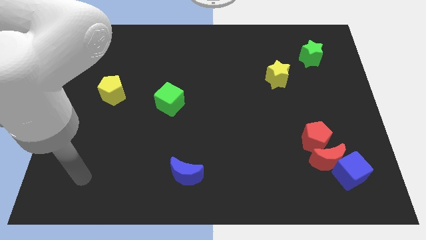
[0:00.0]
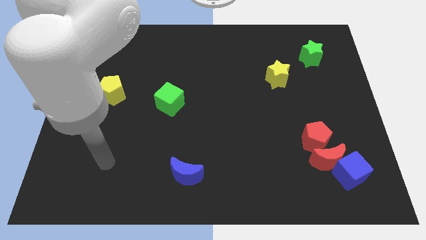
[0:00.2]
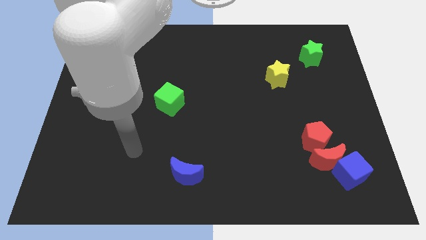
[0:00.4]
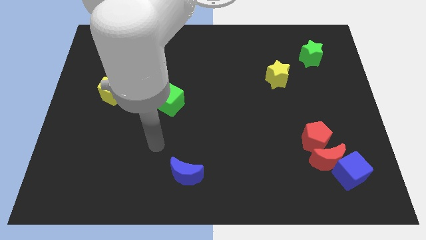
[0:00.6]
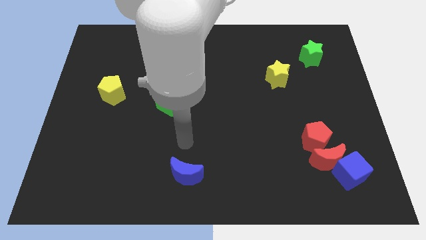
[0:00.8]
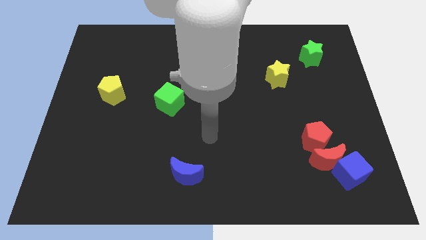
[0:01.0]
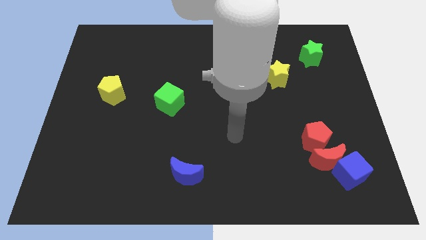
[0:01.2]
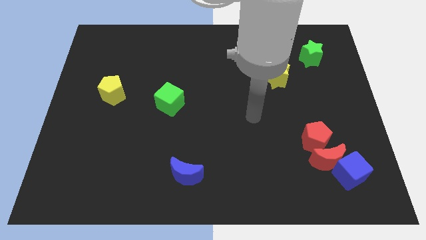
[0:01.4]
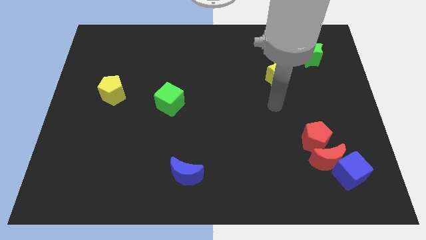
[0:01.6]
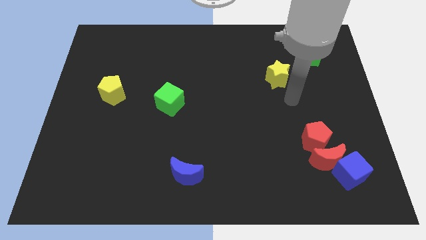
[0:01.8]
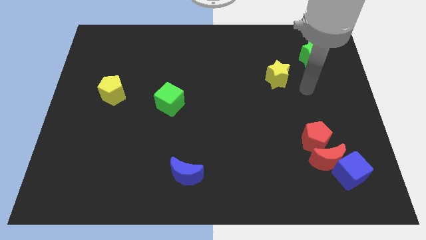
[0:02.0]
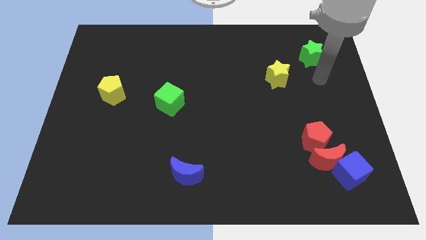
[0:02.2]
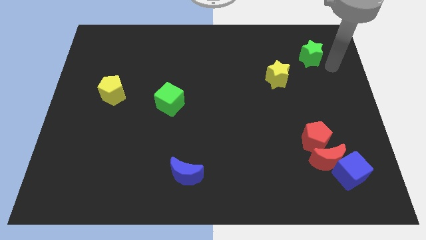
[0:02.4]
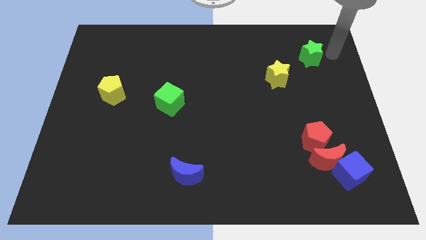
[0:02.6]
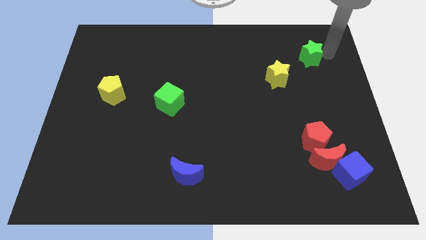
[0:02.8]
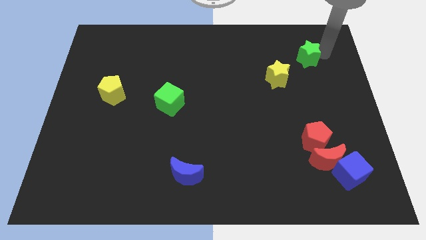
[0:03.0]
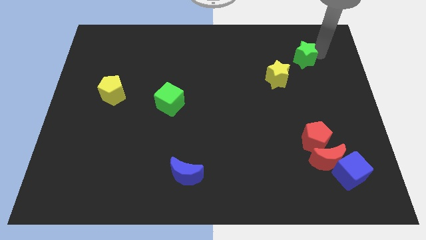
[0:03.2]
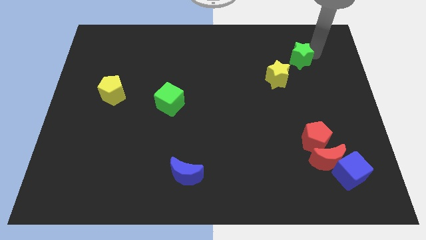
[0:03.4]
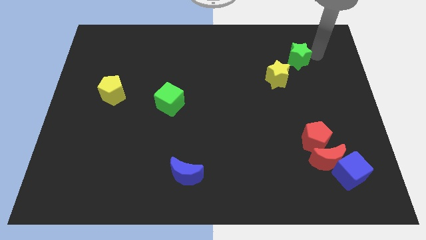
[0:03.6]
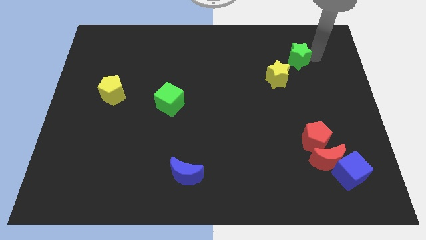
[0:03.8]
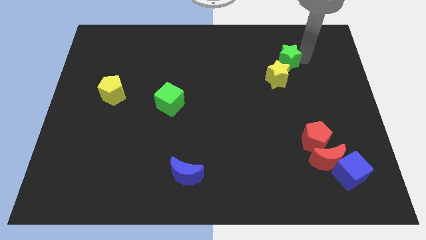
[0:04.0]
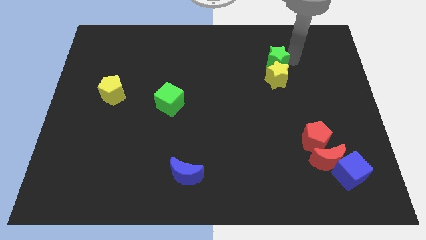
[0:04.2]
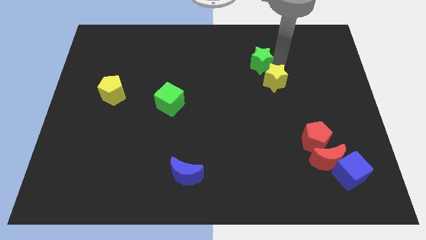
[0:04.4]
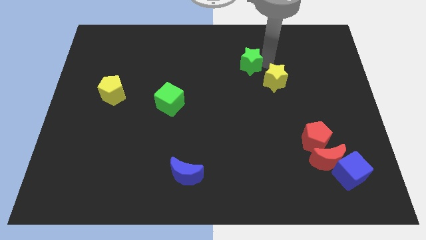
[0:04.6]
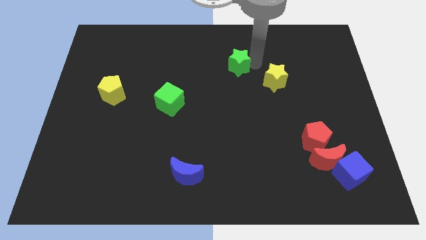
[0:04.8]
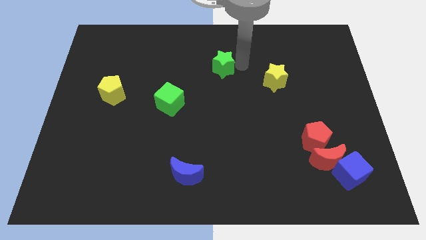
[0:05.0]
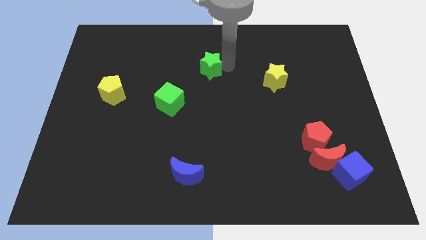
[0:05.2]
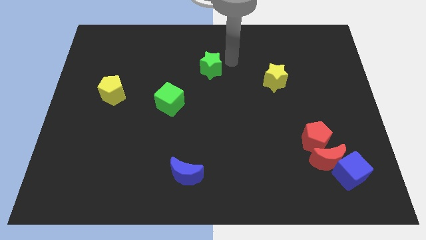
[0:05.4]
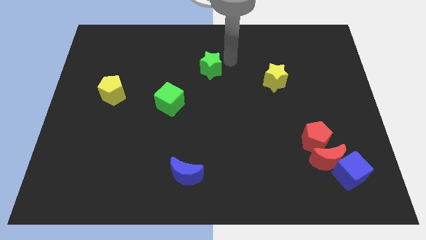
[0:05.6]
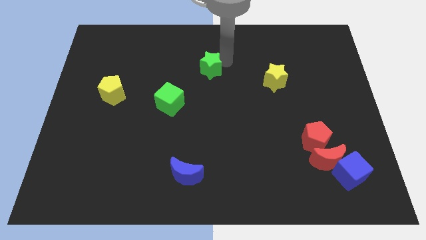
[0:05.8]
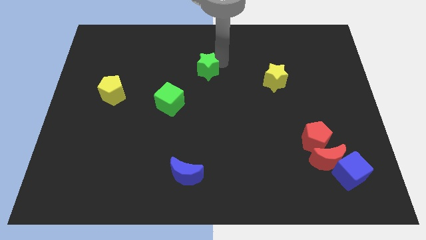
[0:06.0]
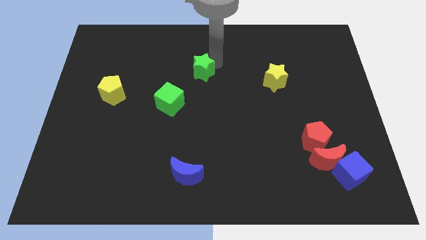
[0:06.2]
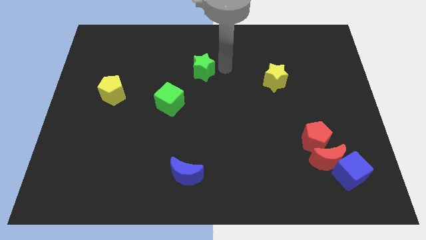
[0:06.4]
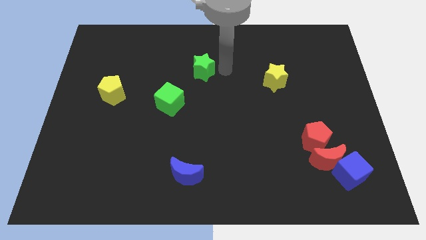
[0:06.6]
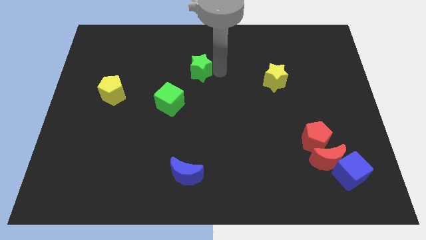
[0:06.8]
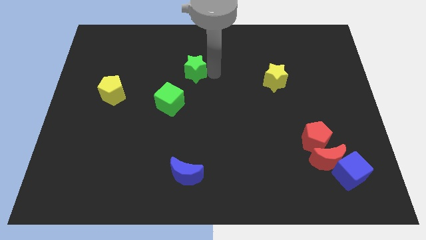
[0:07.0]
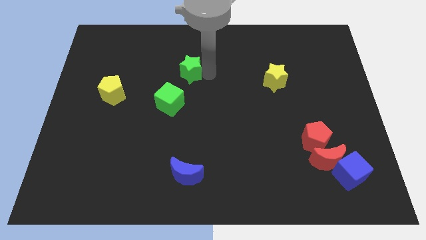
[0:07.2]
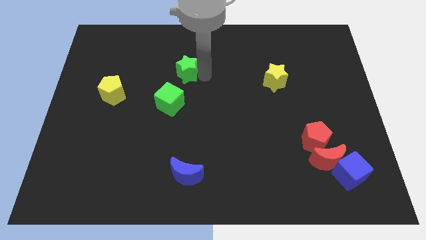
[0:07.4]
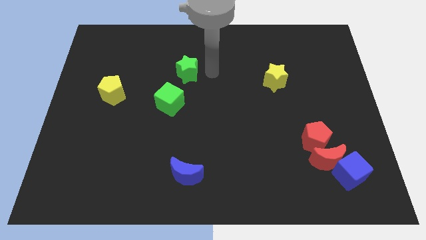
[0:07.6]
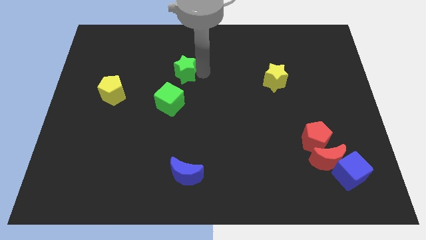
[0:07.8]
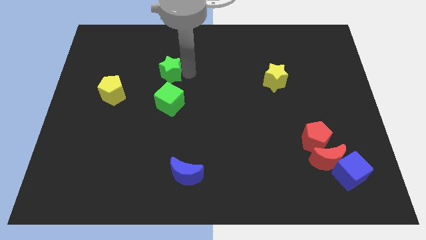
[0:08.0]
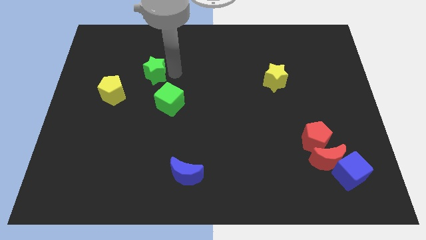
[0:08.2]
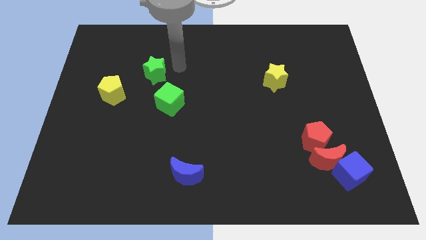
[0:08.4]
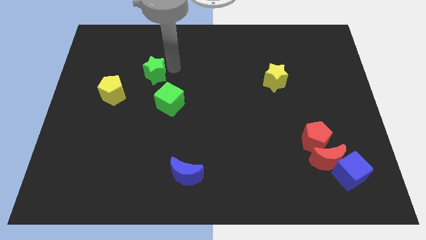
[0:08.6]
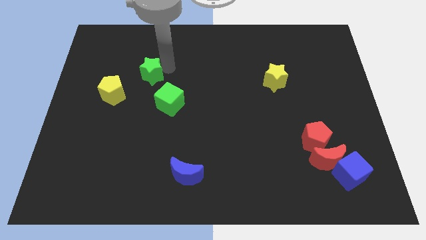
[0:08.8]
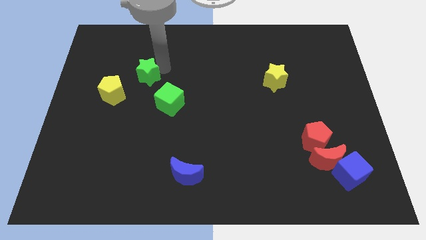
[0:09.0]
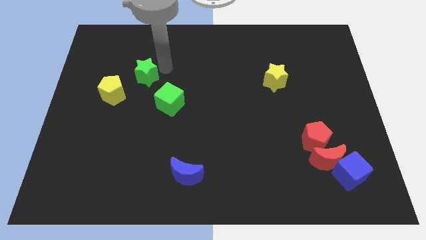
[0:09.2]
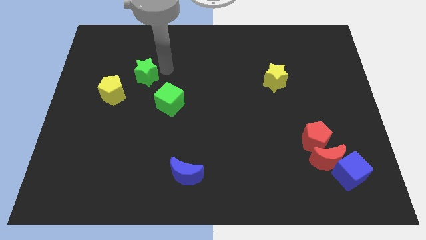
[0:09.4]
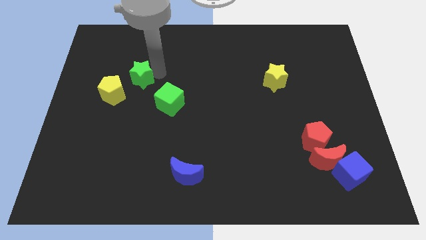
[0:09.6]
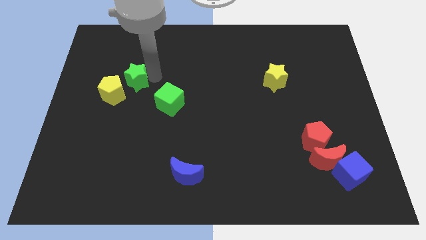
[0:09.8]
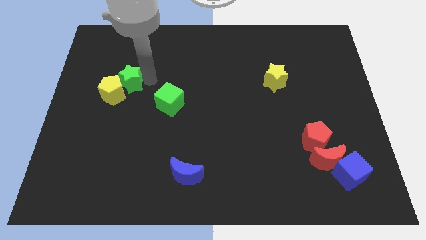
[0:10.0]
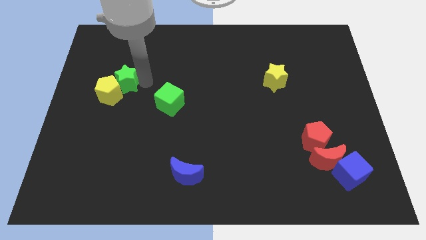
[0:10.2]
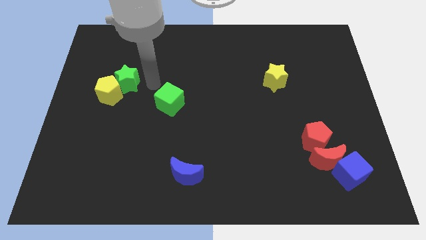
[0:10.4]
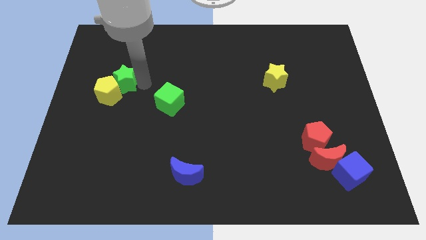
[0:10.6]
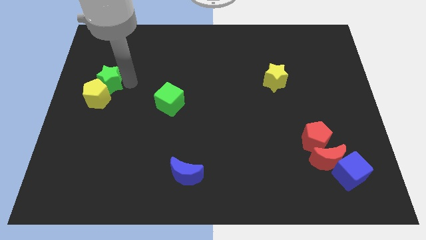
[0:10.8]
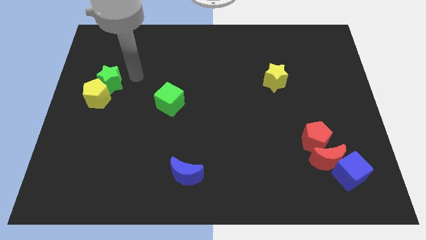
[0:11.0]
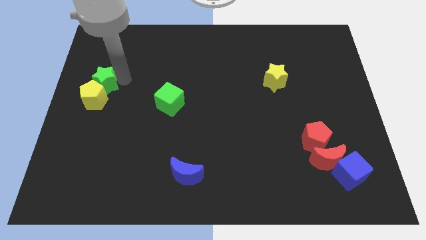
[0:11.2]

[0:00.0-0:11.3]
push the green star to the left side

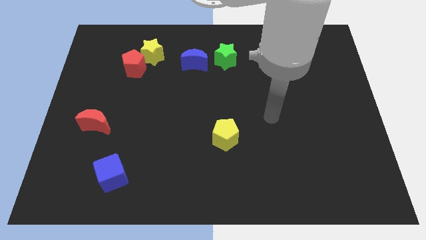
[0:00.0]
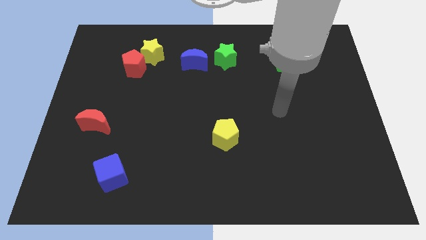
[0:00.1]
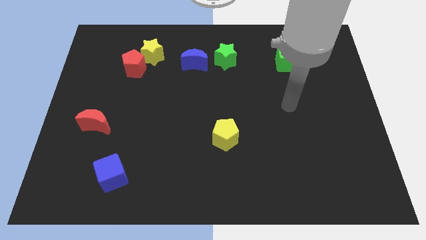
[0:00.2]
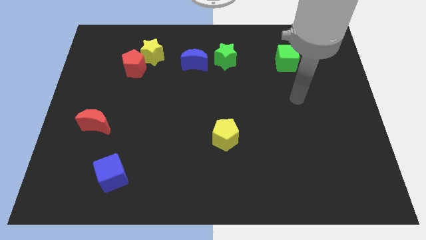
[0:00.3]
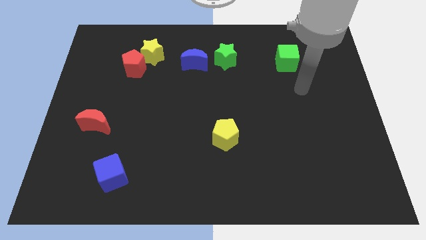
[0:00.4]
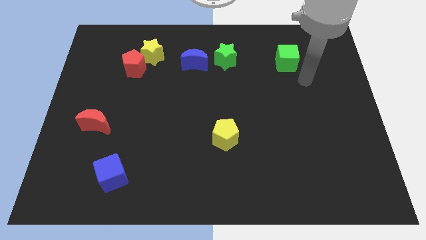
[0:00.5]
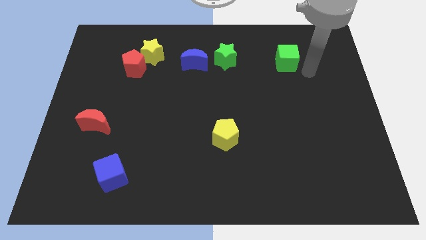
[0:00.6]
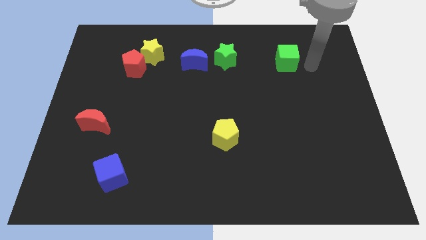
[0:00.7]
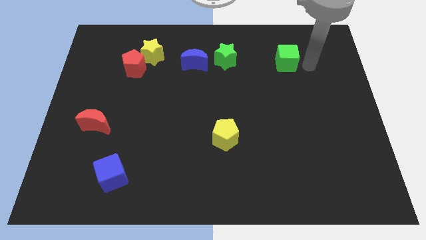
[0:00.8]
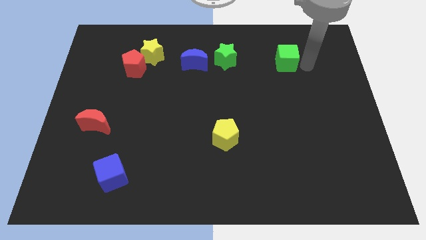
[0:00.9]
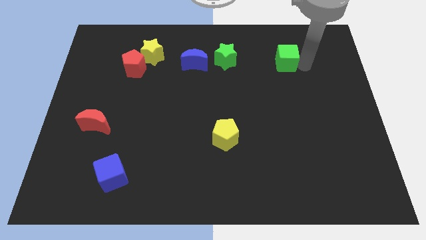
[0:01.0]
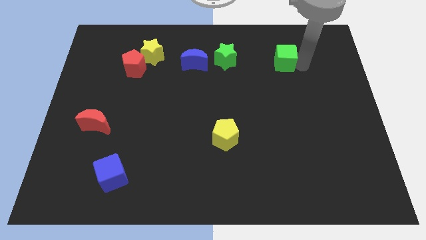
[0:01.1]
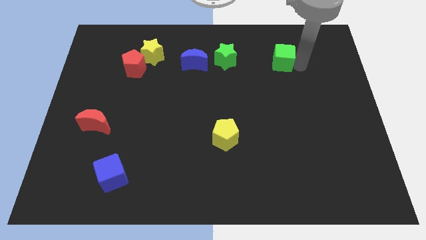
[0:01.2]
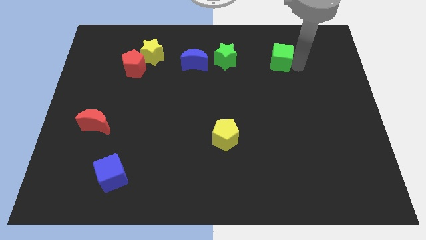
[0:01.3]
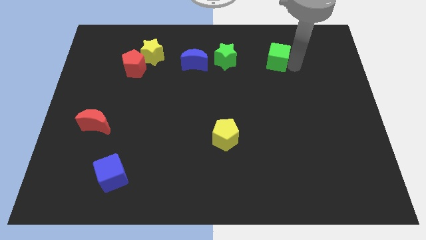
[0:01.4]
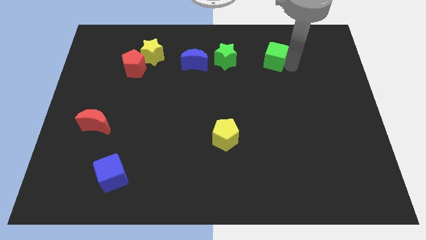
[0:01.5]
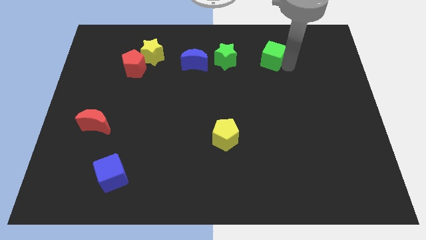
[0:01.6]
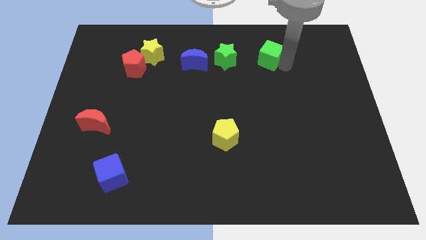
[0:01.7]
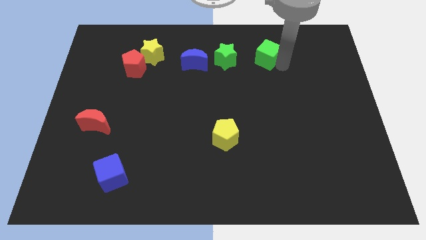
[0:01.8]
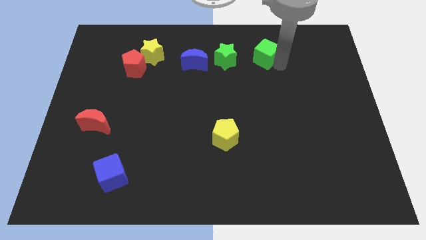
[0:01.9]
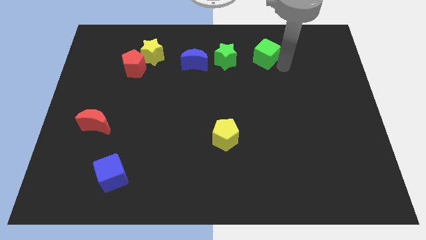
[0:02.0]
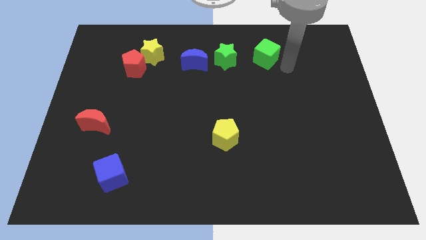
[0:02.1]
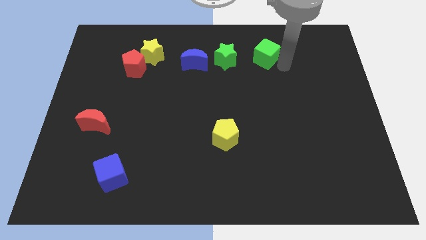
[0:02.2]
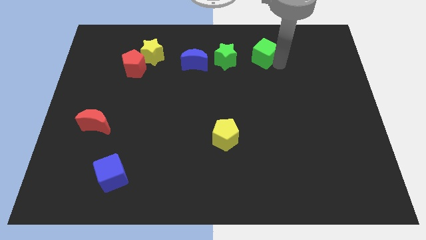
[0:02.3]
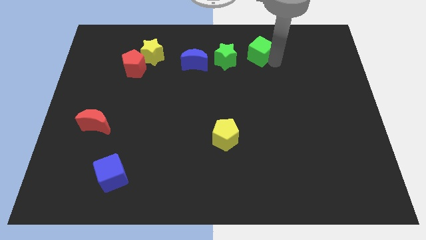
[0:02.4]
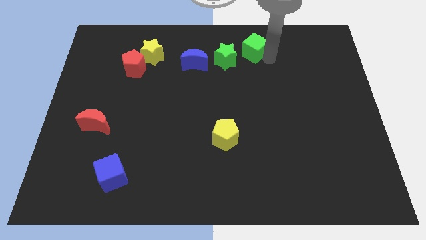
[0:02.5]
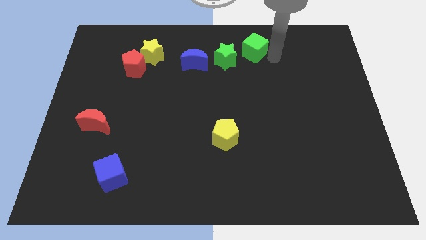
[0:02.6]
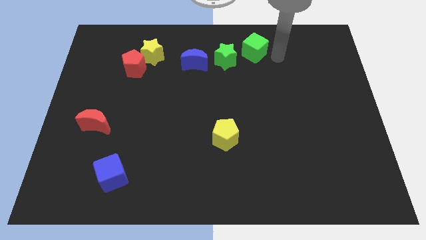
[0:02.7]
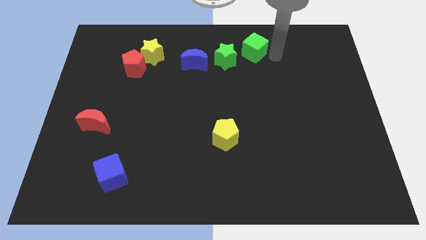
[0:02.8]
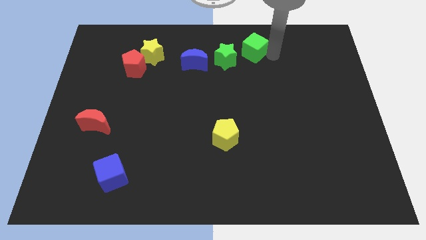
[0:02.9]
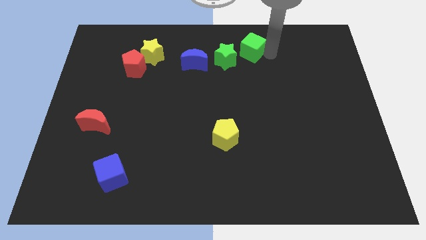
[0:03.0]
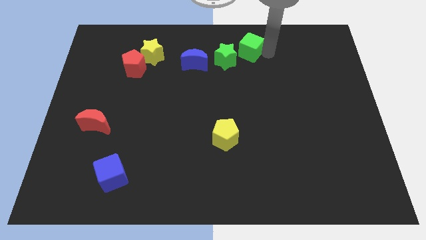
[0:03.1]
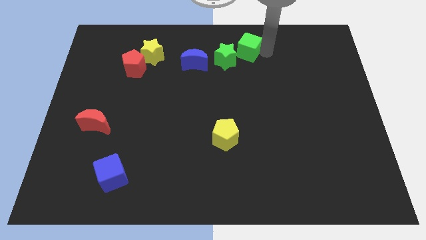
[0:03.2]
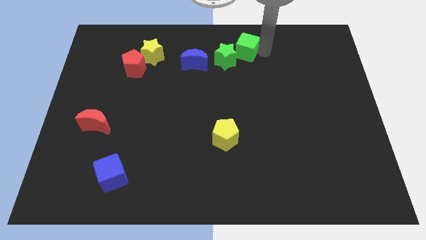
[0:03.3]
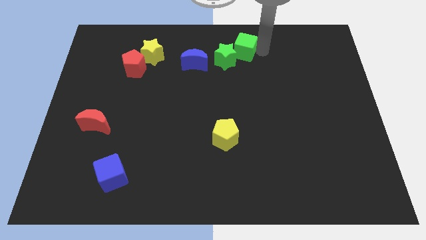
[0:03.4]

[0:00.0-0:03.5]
put the green cube to the top
